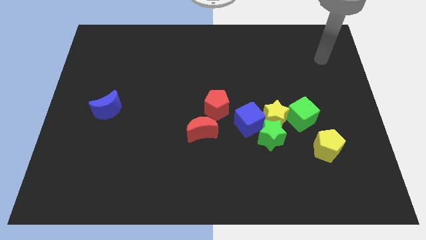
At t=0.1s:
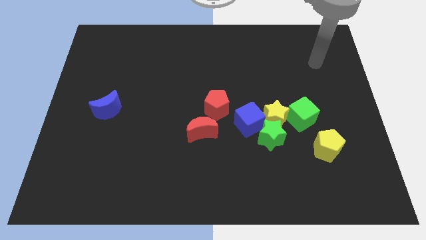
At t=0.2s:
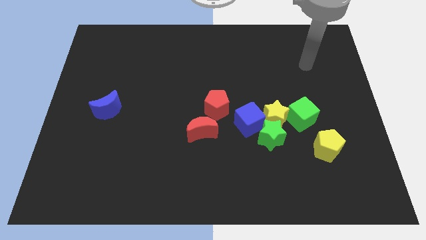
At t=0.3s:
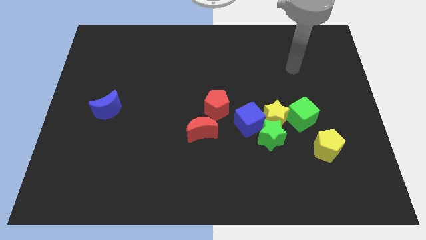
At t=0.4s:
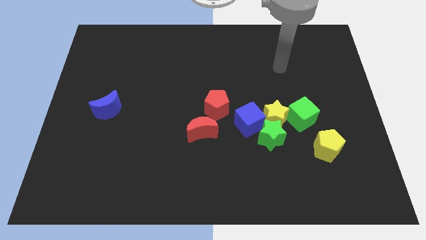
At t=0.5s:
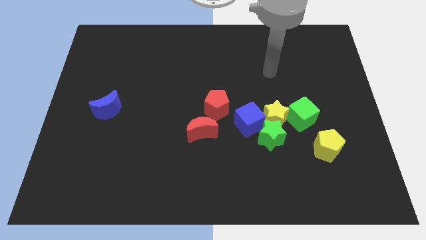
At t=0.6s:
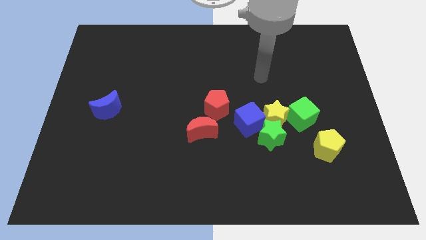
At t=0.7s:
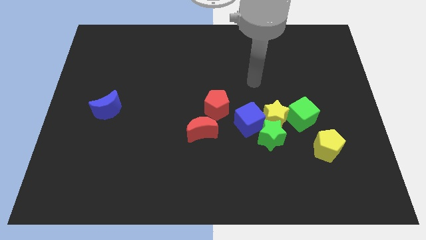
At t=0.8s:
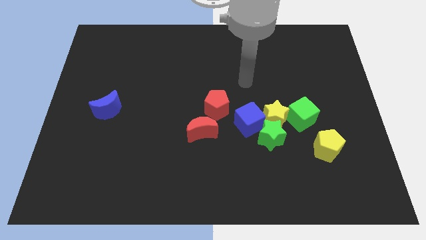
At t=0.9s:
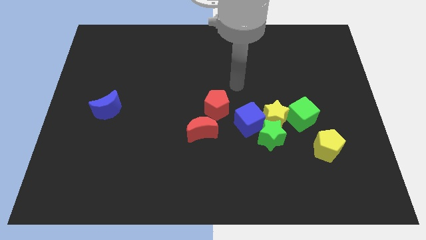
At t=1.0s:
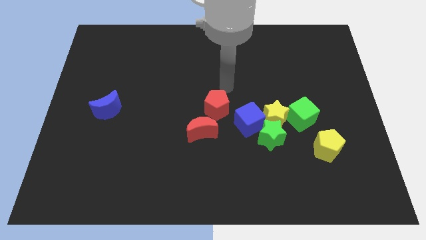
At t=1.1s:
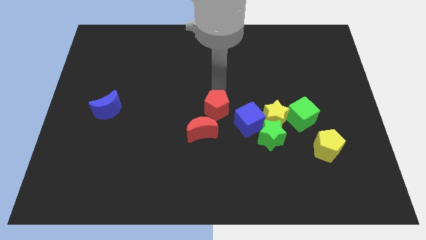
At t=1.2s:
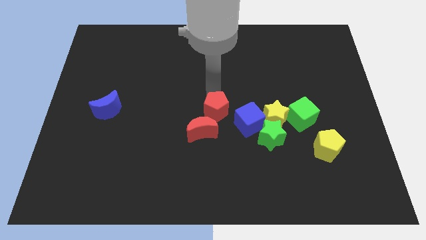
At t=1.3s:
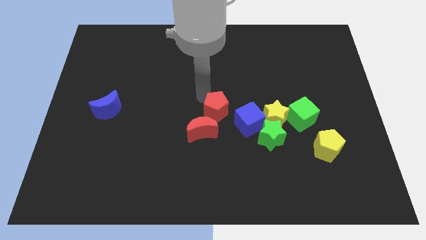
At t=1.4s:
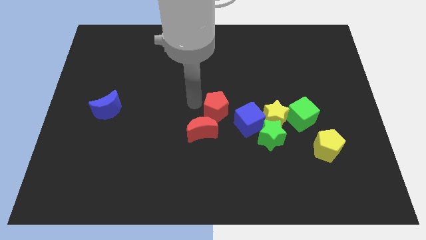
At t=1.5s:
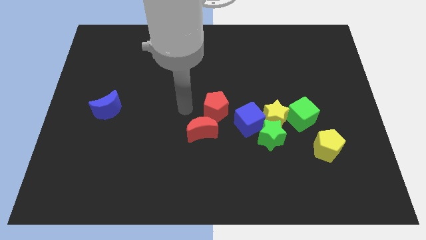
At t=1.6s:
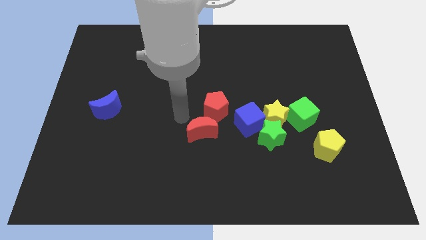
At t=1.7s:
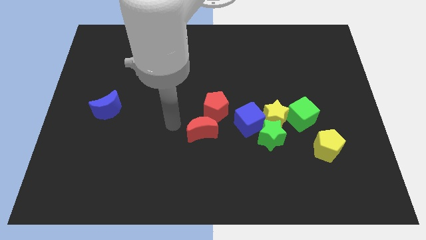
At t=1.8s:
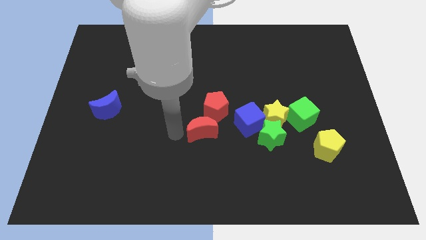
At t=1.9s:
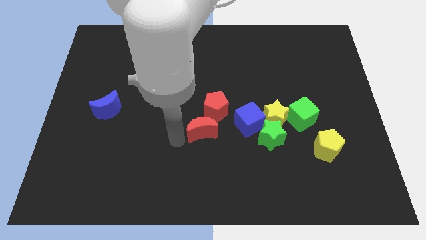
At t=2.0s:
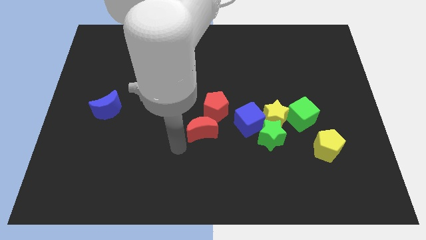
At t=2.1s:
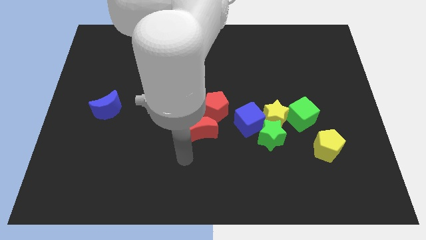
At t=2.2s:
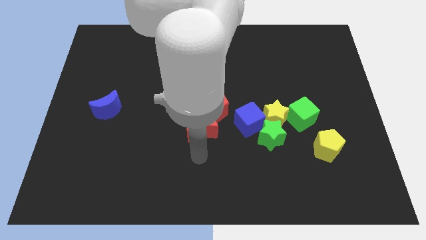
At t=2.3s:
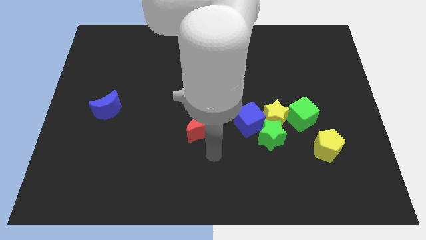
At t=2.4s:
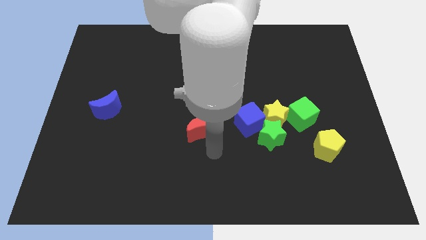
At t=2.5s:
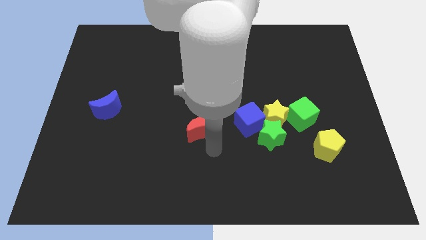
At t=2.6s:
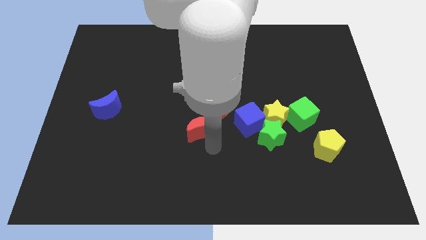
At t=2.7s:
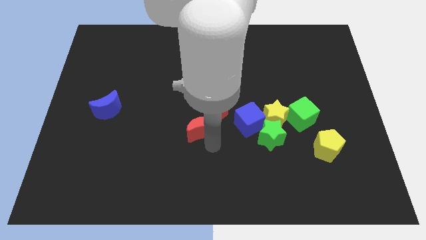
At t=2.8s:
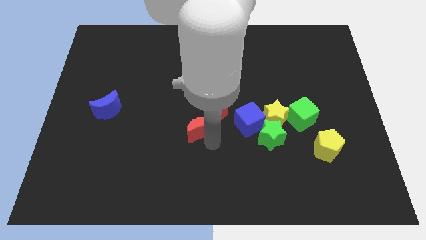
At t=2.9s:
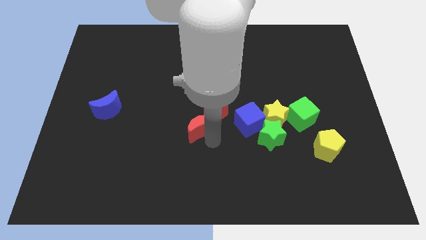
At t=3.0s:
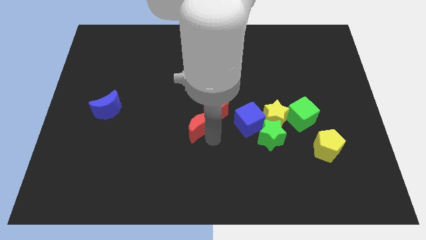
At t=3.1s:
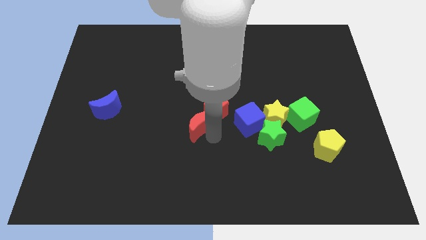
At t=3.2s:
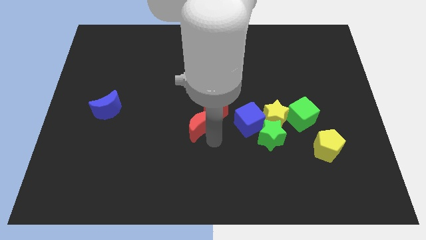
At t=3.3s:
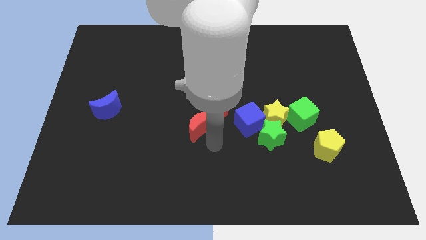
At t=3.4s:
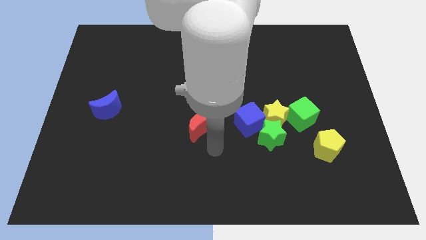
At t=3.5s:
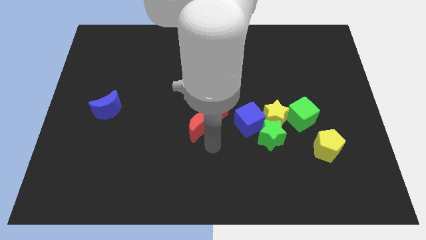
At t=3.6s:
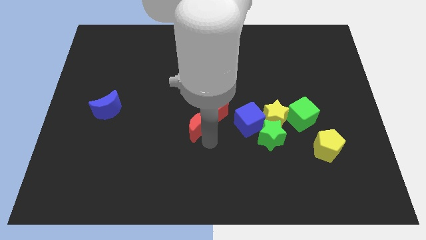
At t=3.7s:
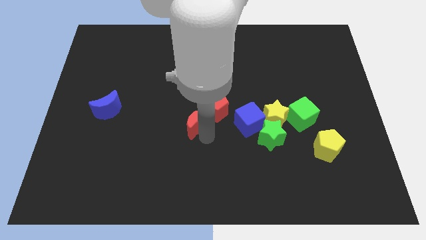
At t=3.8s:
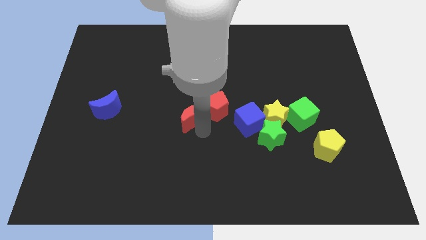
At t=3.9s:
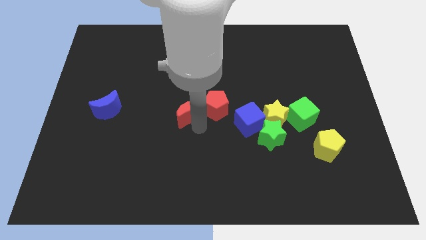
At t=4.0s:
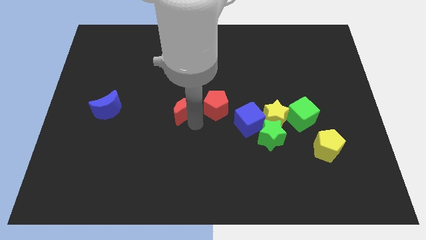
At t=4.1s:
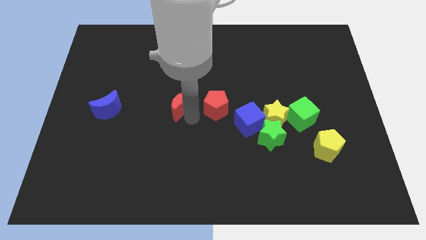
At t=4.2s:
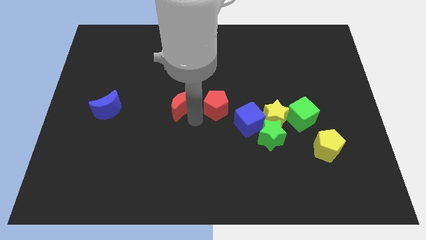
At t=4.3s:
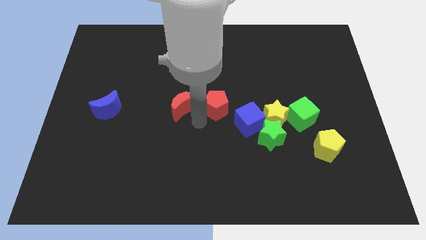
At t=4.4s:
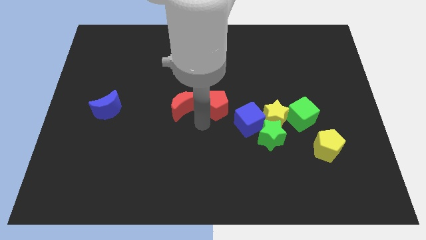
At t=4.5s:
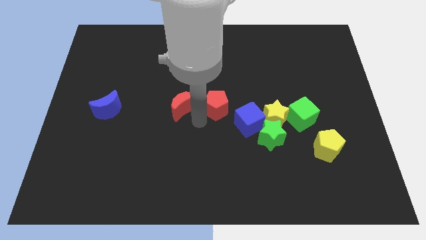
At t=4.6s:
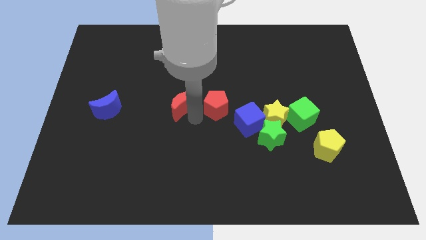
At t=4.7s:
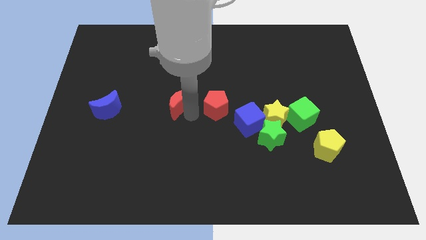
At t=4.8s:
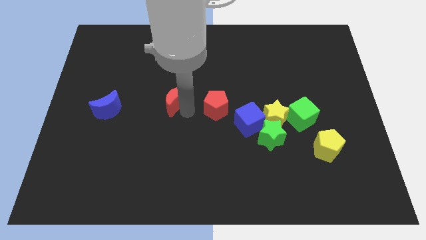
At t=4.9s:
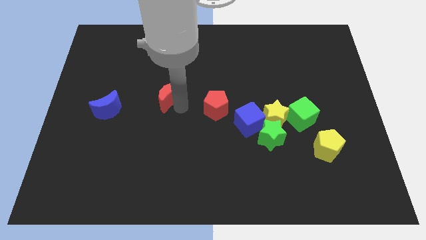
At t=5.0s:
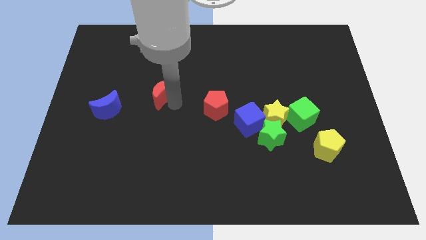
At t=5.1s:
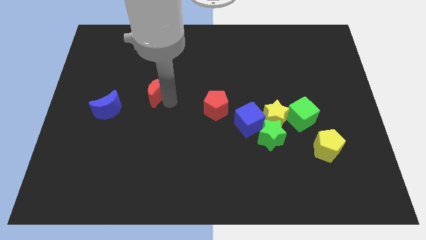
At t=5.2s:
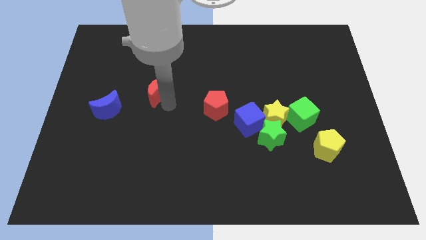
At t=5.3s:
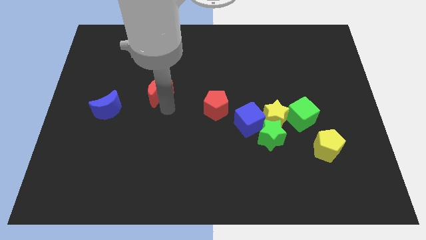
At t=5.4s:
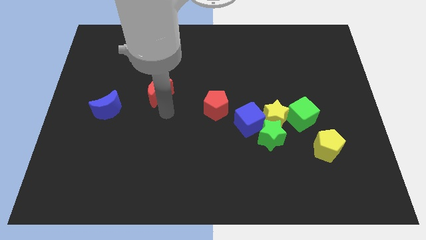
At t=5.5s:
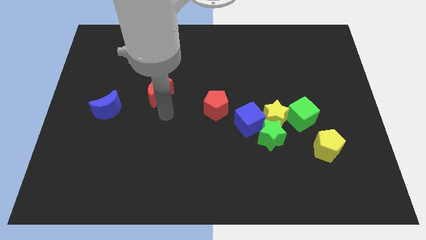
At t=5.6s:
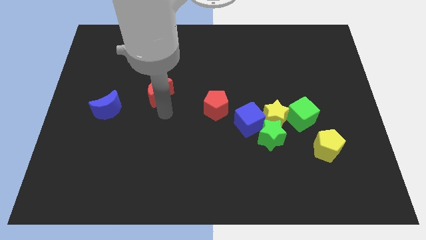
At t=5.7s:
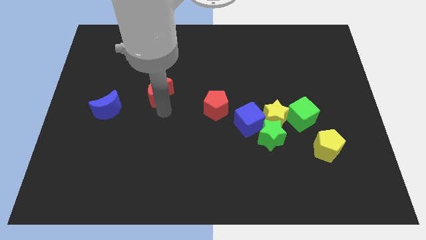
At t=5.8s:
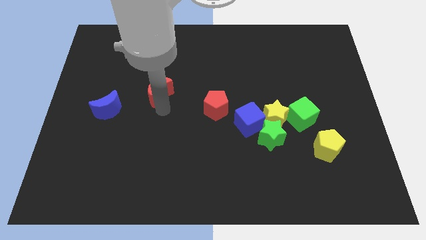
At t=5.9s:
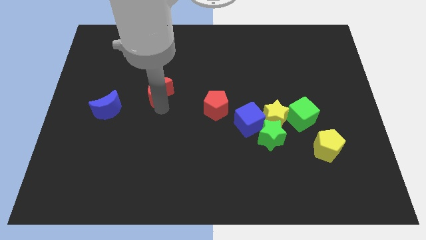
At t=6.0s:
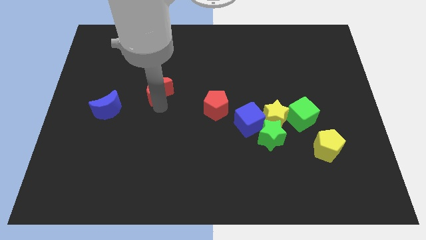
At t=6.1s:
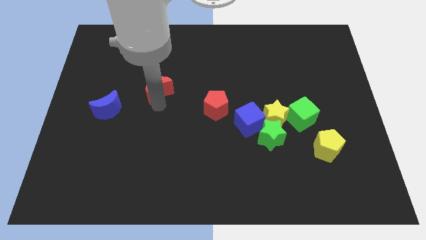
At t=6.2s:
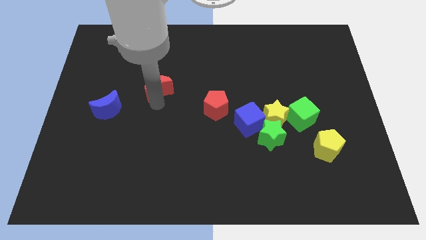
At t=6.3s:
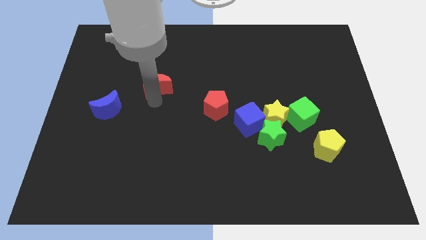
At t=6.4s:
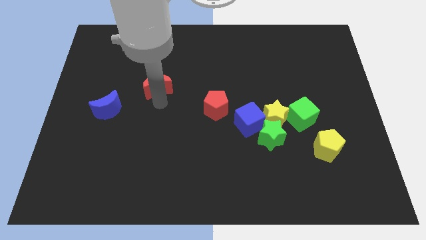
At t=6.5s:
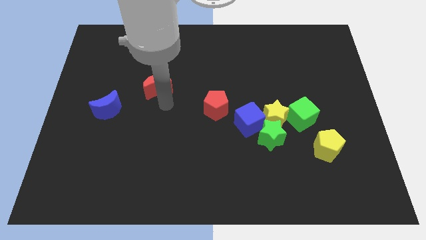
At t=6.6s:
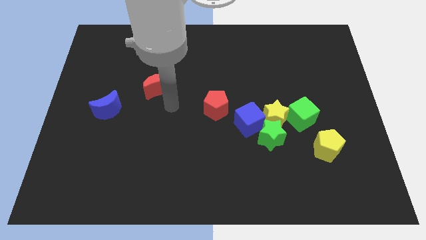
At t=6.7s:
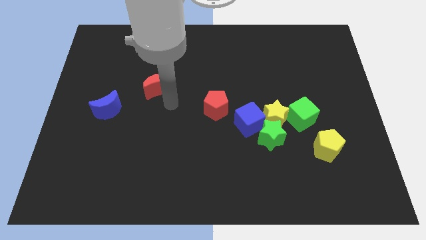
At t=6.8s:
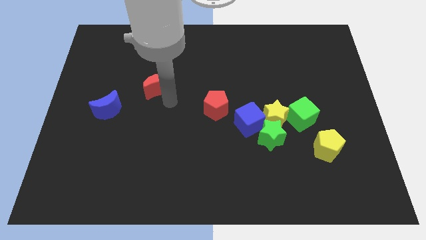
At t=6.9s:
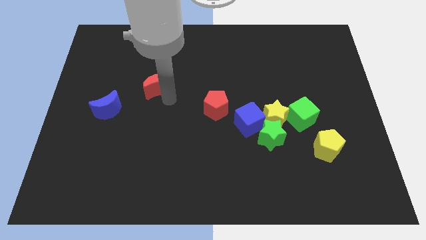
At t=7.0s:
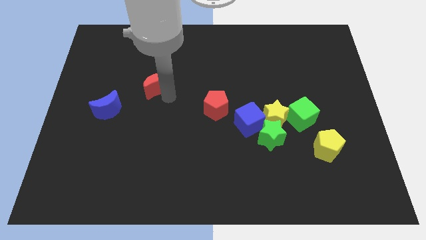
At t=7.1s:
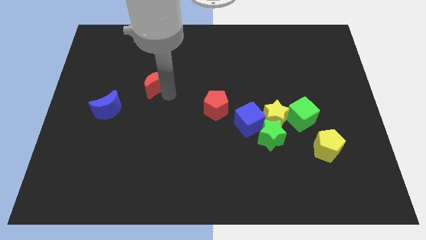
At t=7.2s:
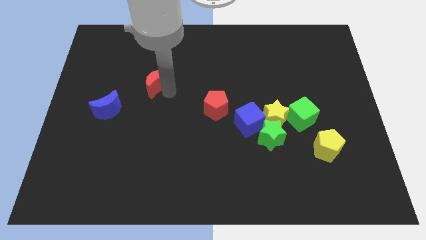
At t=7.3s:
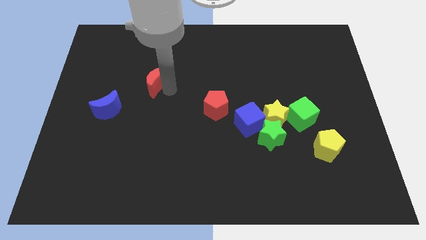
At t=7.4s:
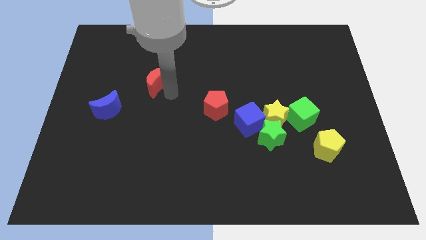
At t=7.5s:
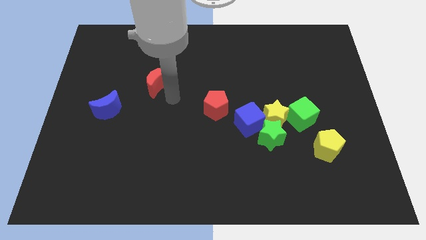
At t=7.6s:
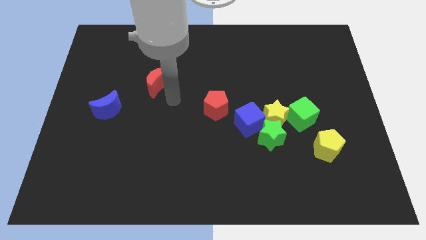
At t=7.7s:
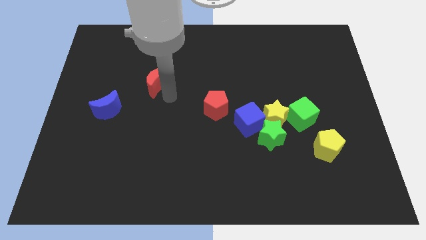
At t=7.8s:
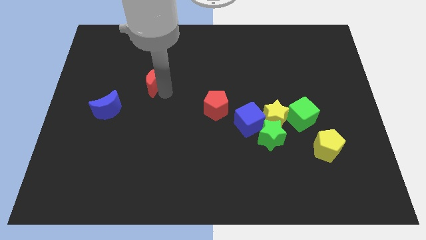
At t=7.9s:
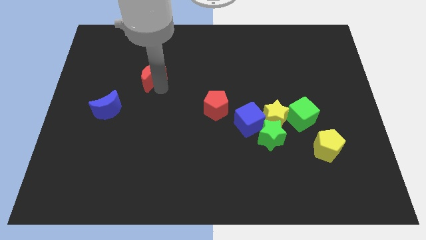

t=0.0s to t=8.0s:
slide the red moon diagonally up and left
